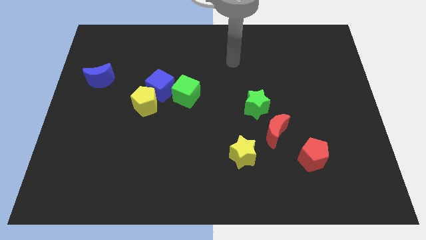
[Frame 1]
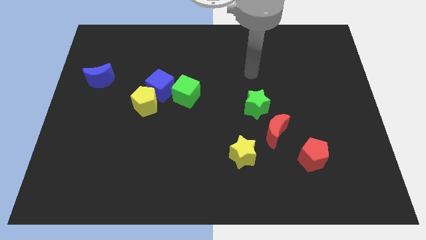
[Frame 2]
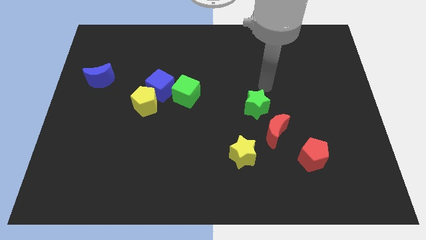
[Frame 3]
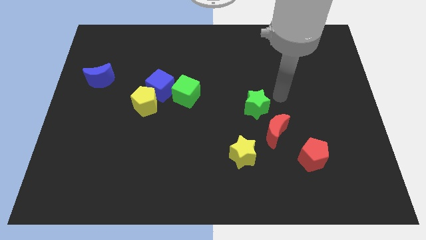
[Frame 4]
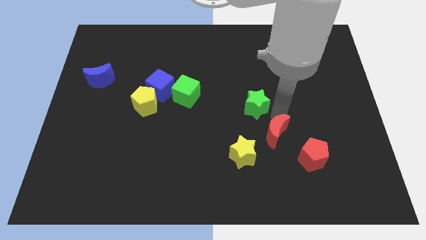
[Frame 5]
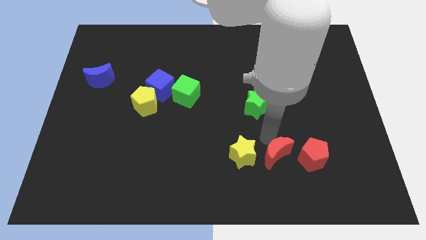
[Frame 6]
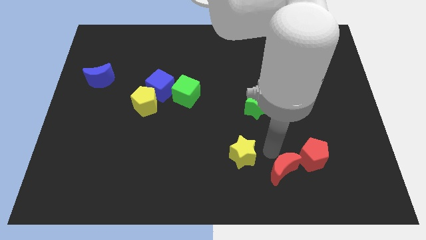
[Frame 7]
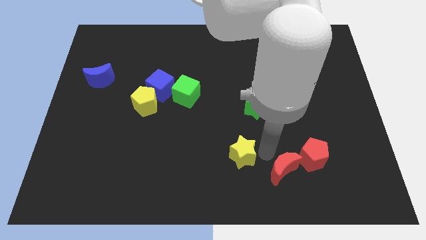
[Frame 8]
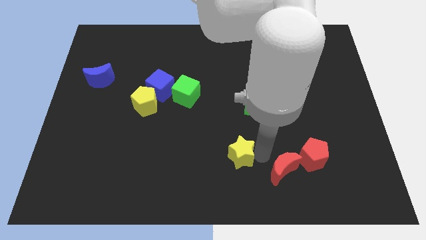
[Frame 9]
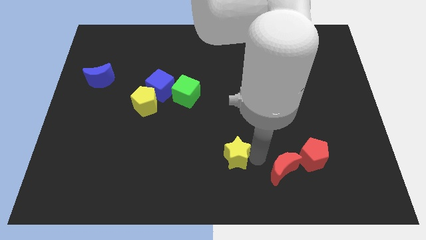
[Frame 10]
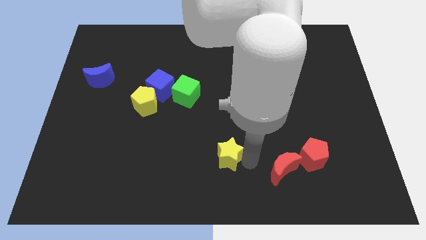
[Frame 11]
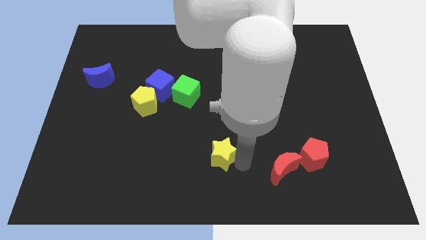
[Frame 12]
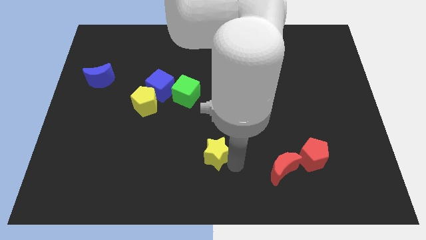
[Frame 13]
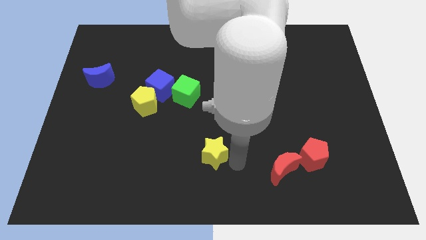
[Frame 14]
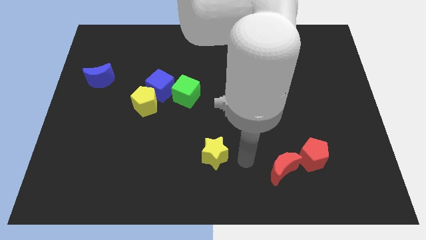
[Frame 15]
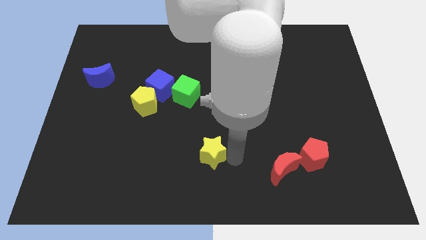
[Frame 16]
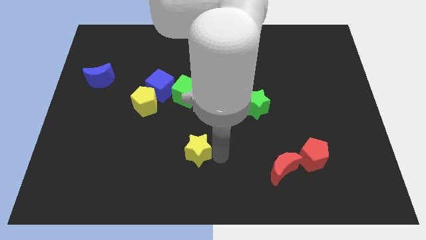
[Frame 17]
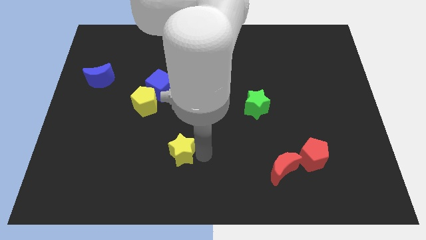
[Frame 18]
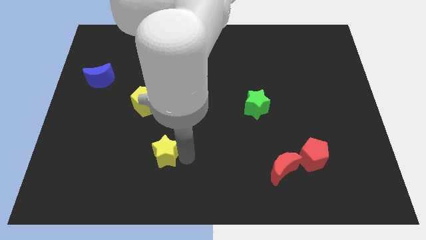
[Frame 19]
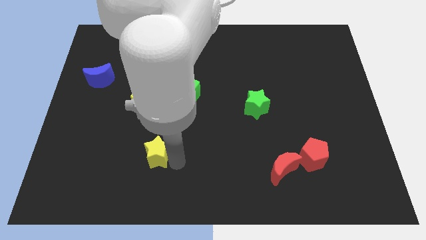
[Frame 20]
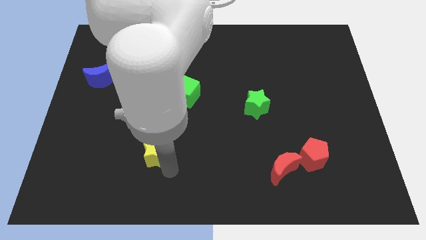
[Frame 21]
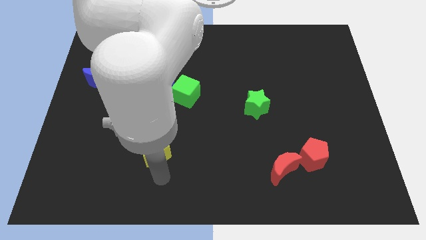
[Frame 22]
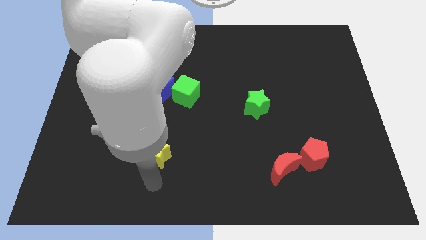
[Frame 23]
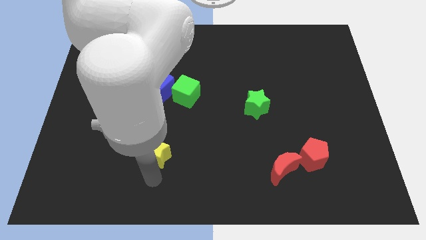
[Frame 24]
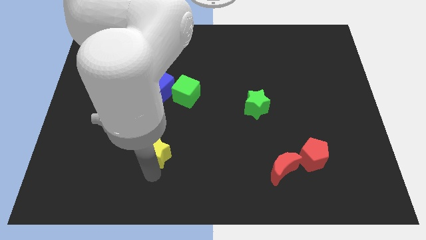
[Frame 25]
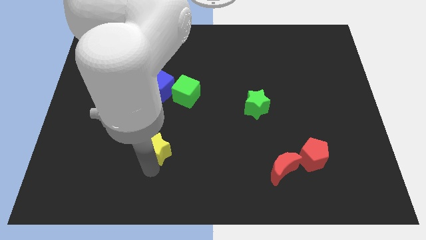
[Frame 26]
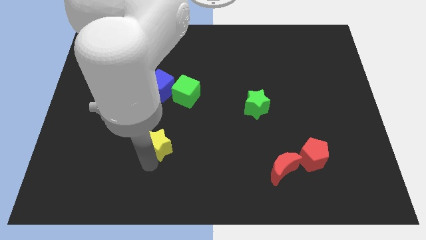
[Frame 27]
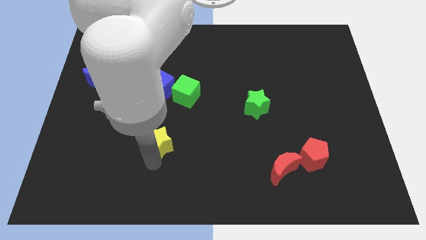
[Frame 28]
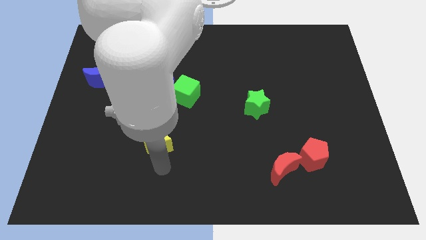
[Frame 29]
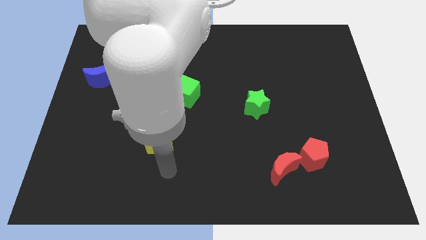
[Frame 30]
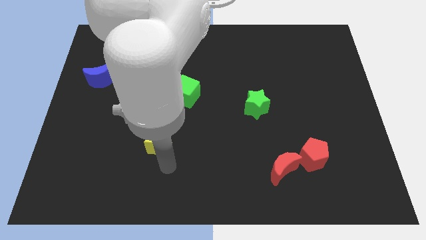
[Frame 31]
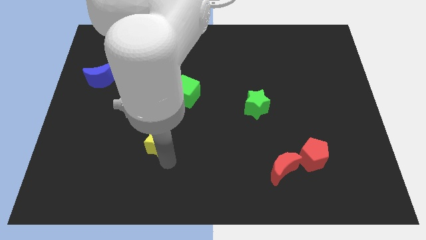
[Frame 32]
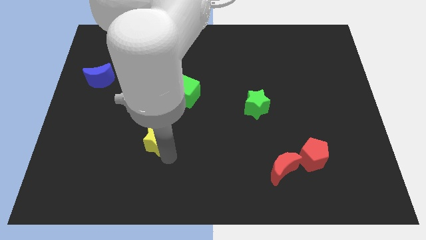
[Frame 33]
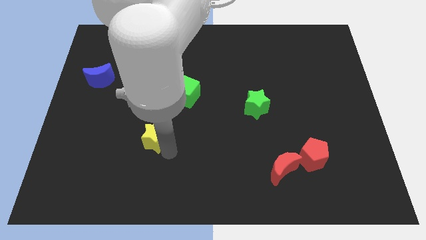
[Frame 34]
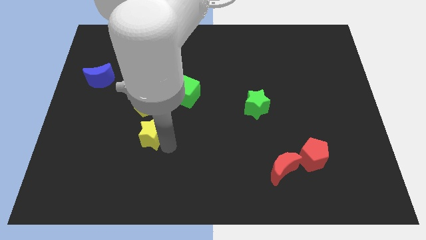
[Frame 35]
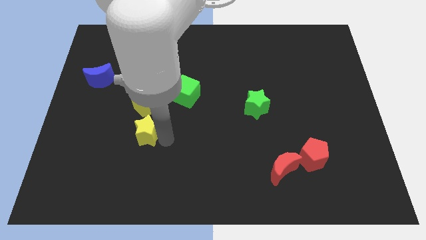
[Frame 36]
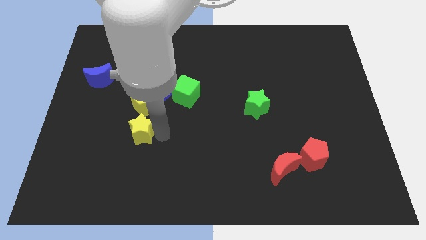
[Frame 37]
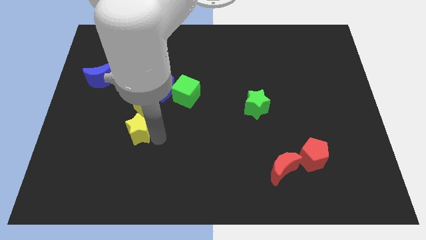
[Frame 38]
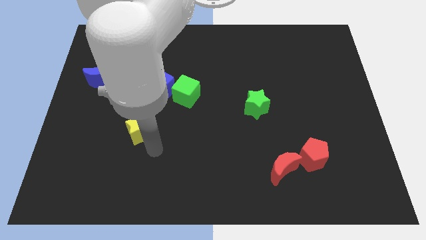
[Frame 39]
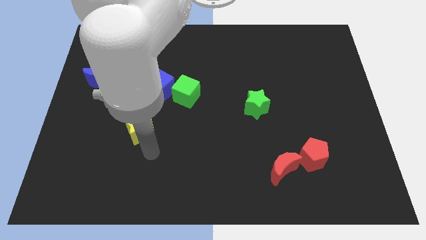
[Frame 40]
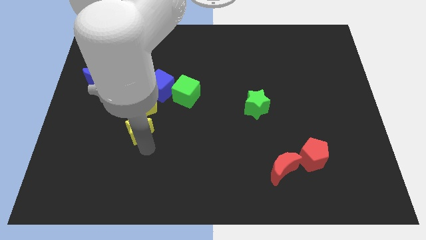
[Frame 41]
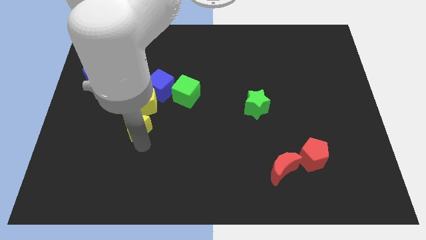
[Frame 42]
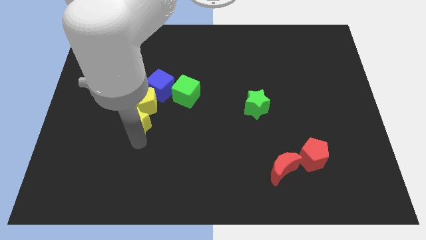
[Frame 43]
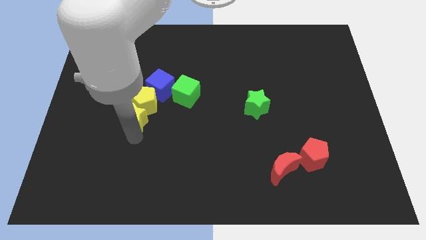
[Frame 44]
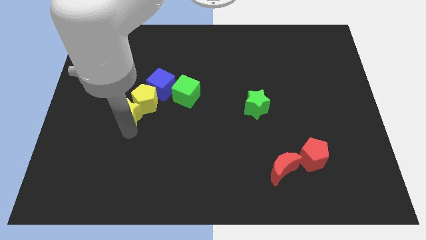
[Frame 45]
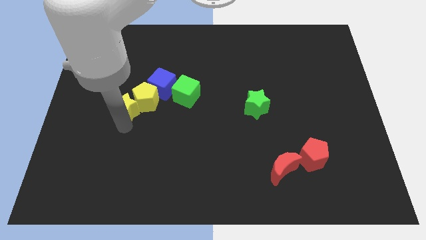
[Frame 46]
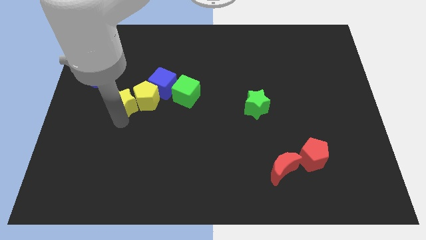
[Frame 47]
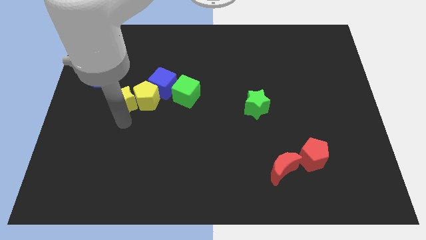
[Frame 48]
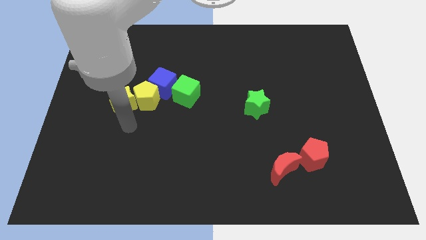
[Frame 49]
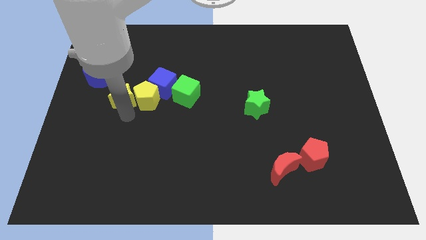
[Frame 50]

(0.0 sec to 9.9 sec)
put the yellow star left of the blue cube

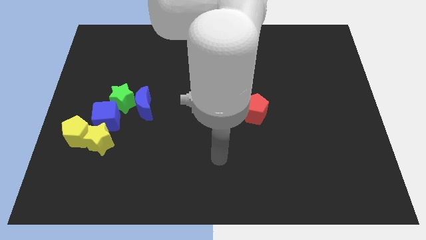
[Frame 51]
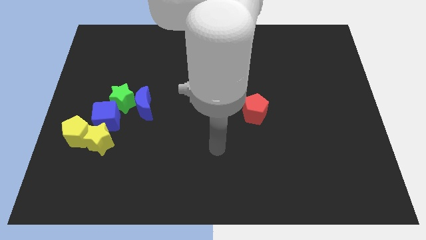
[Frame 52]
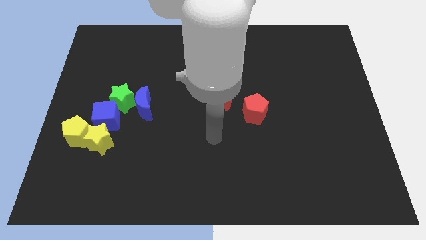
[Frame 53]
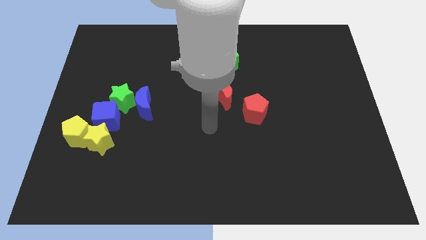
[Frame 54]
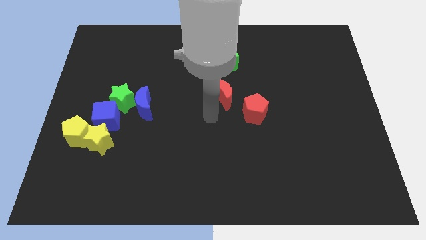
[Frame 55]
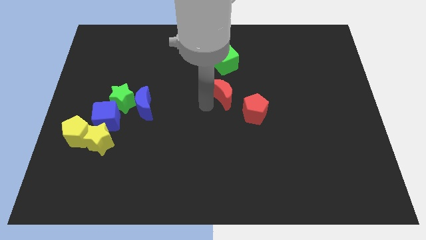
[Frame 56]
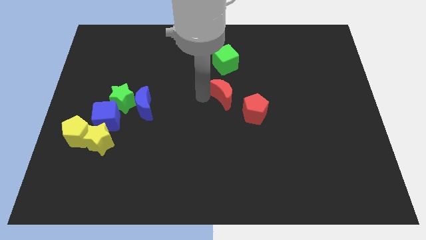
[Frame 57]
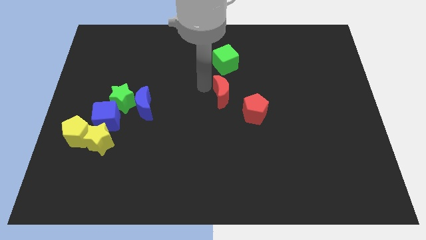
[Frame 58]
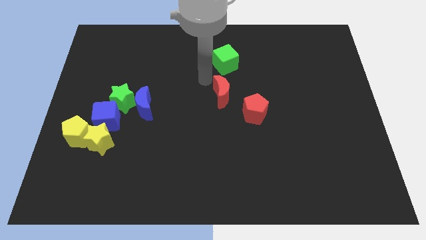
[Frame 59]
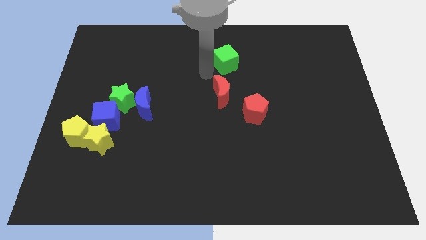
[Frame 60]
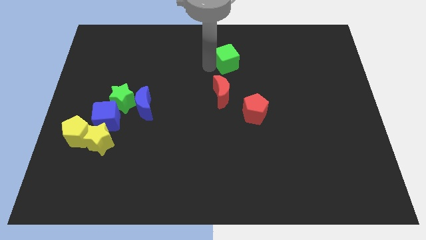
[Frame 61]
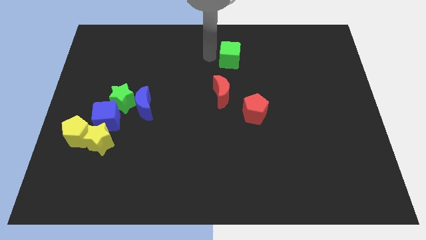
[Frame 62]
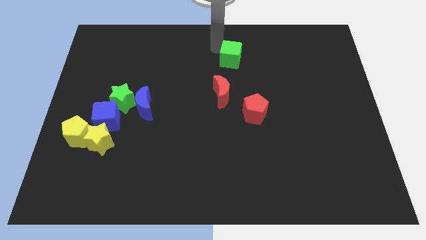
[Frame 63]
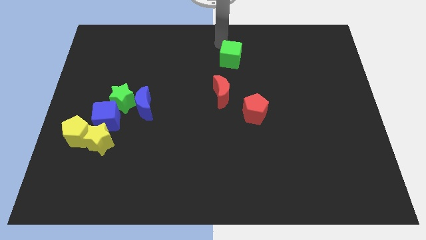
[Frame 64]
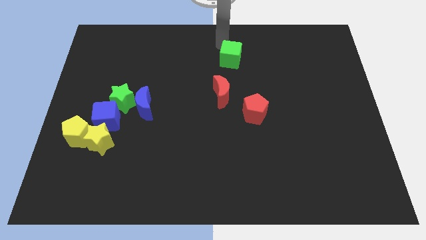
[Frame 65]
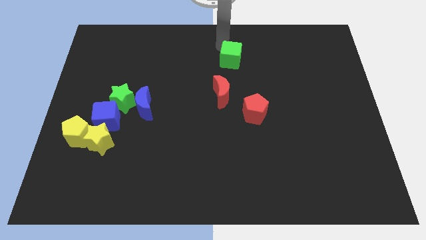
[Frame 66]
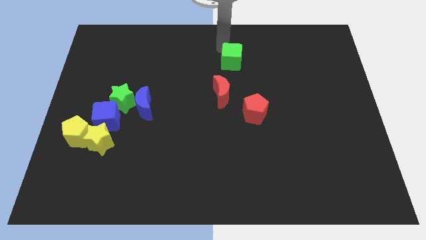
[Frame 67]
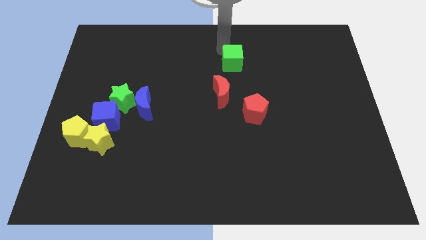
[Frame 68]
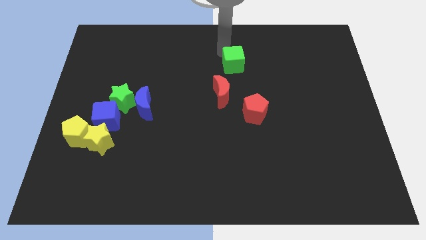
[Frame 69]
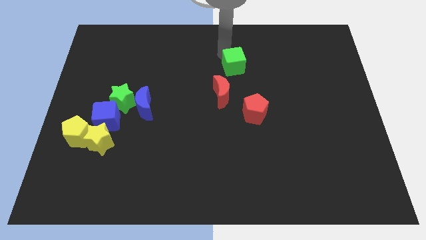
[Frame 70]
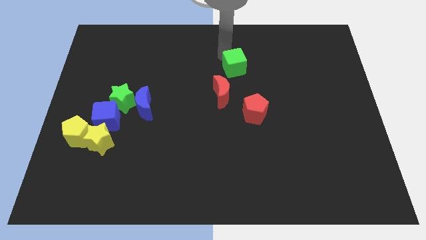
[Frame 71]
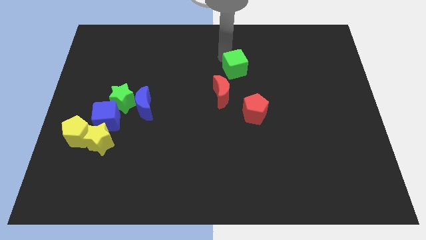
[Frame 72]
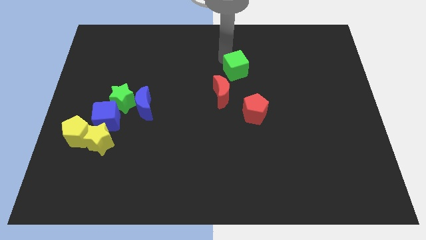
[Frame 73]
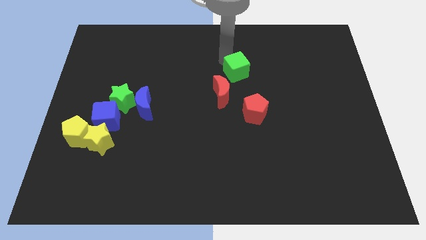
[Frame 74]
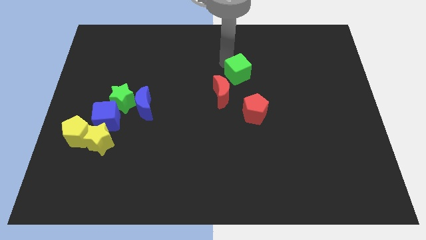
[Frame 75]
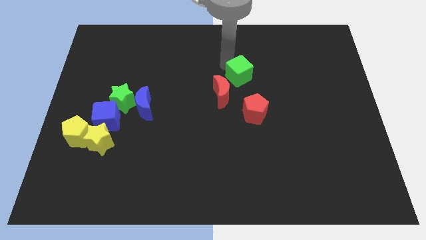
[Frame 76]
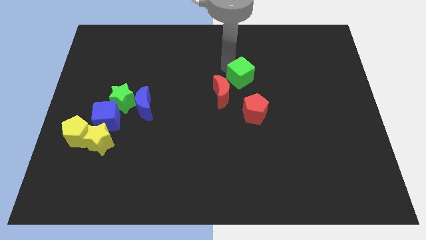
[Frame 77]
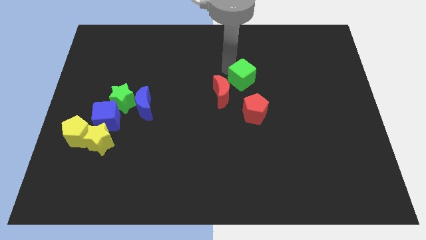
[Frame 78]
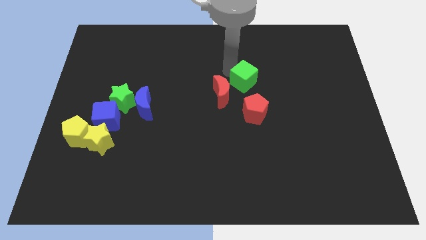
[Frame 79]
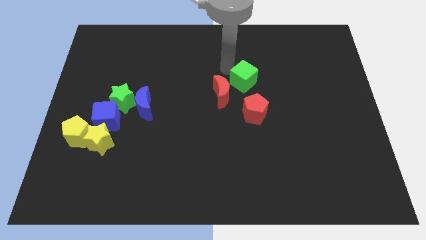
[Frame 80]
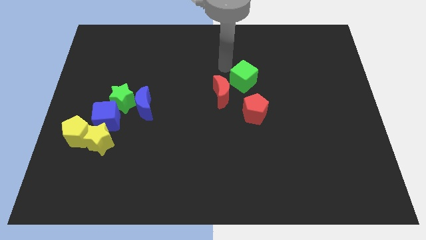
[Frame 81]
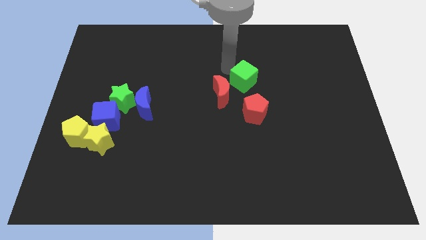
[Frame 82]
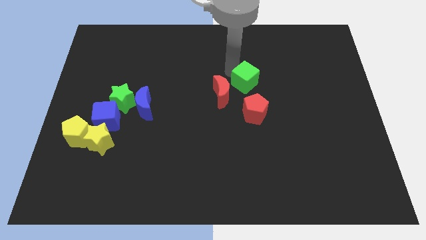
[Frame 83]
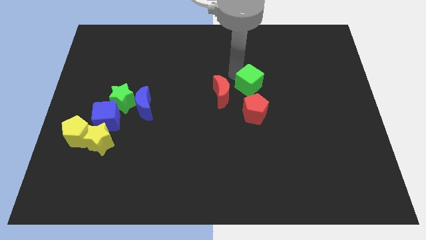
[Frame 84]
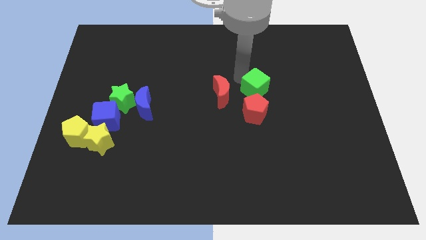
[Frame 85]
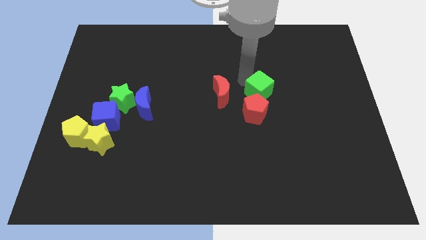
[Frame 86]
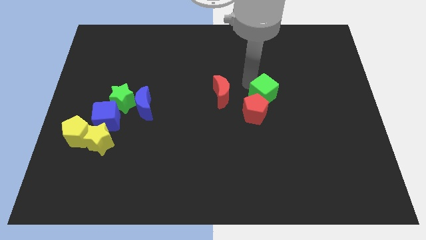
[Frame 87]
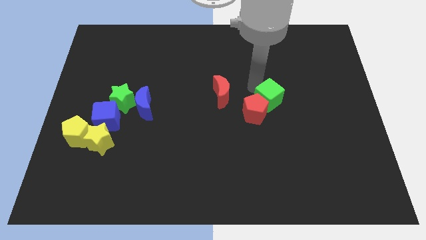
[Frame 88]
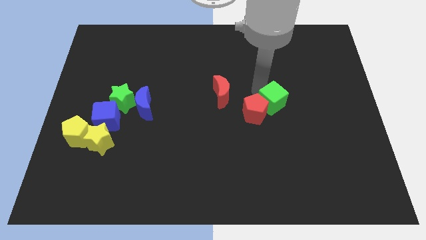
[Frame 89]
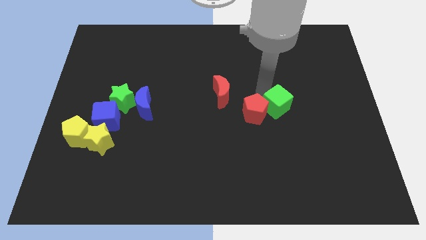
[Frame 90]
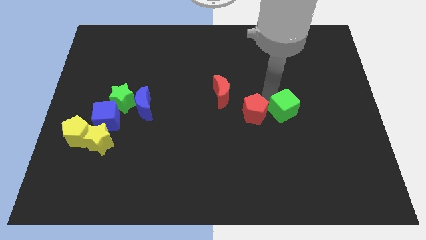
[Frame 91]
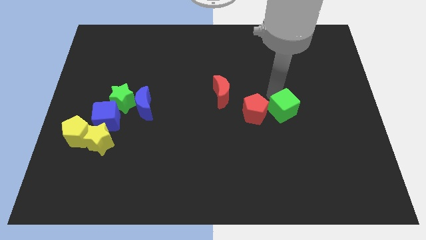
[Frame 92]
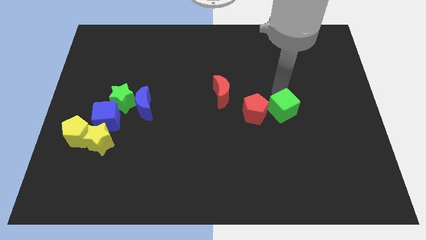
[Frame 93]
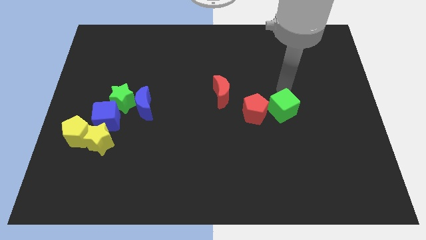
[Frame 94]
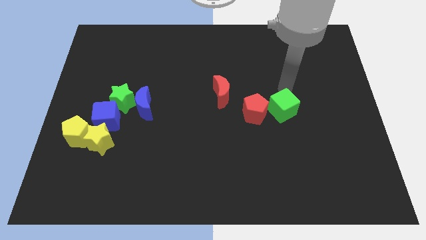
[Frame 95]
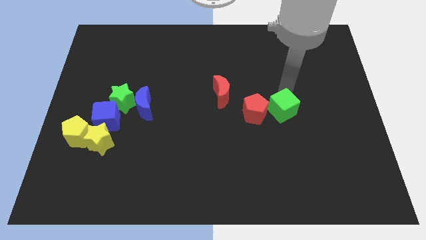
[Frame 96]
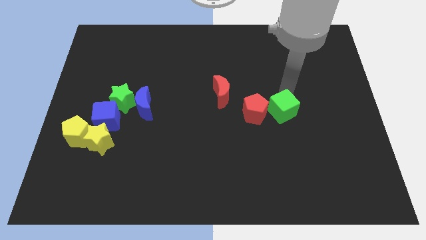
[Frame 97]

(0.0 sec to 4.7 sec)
put the green cube to the bottom right of the red pentagon
